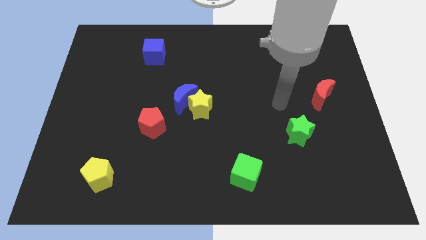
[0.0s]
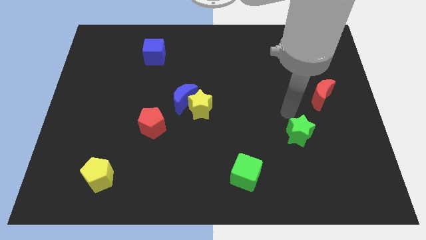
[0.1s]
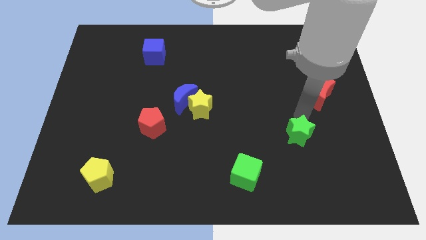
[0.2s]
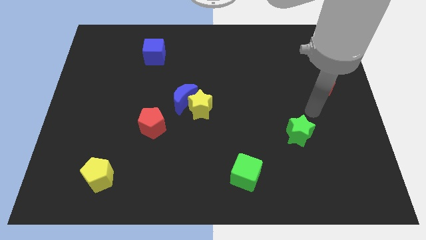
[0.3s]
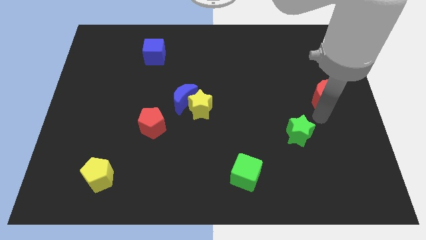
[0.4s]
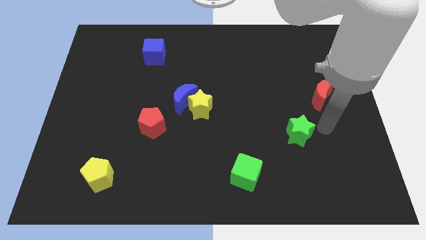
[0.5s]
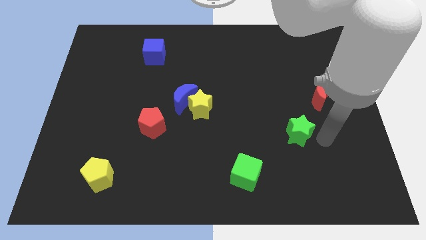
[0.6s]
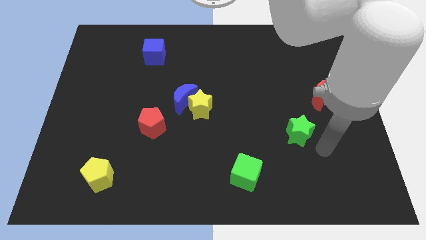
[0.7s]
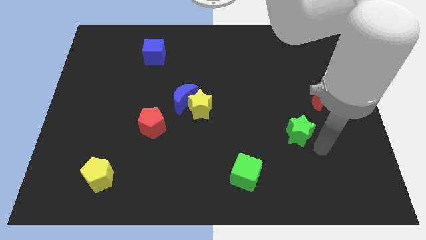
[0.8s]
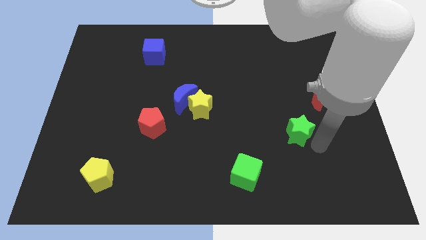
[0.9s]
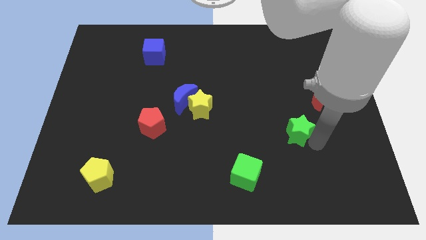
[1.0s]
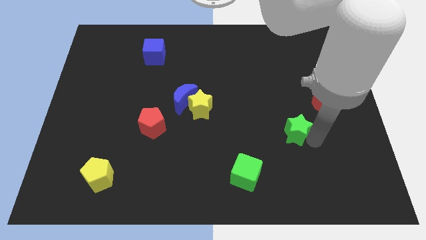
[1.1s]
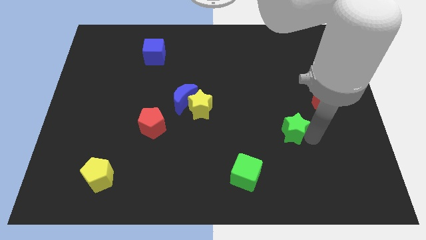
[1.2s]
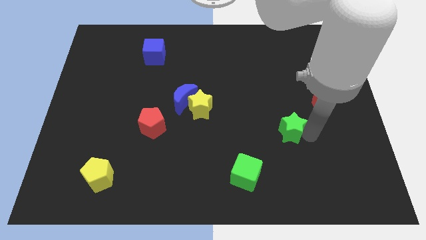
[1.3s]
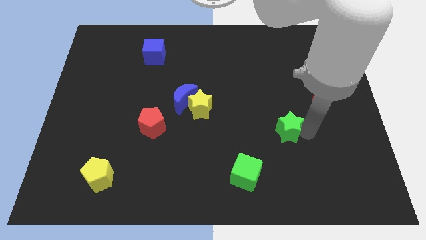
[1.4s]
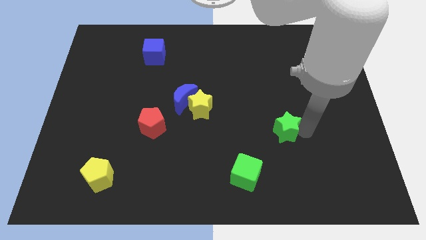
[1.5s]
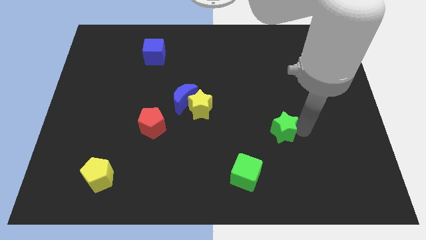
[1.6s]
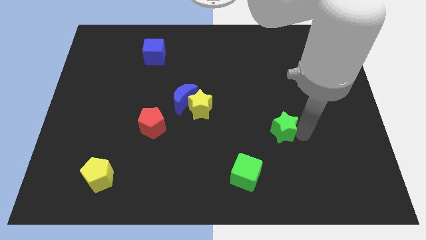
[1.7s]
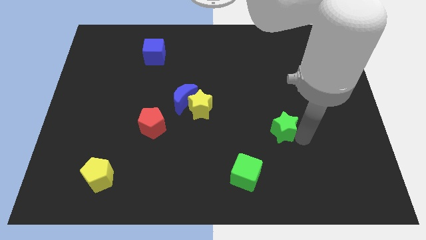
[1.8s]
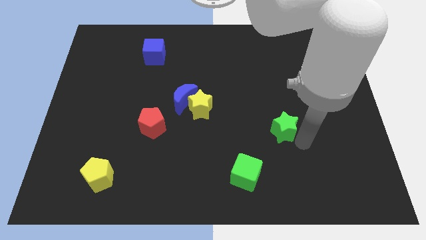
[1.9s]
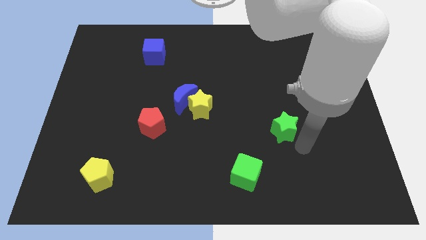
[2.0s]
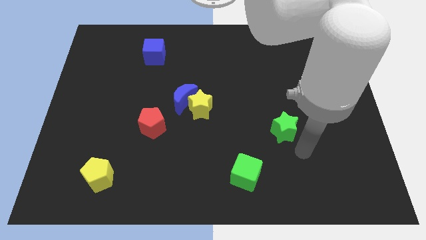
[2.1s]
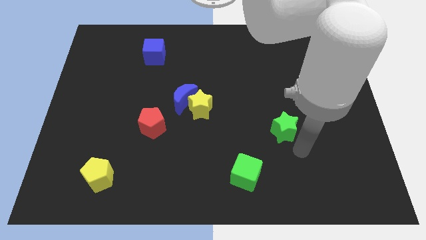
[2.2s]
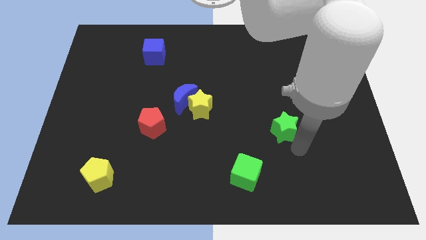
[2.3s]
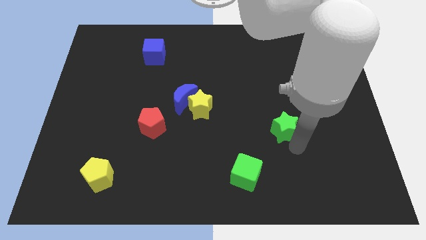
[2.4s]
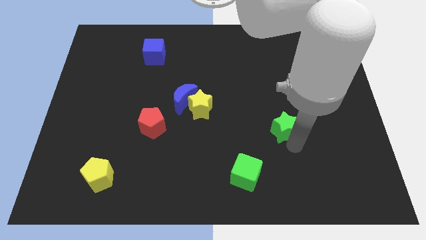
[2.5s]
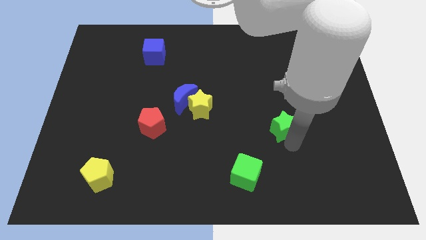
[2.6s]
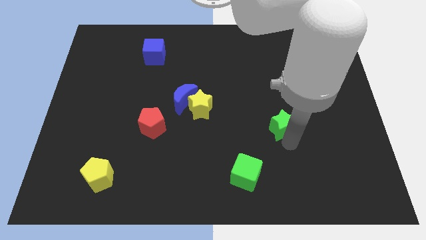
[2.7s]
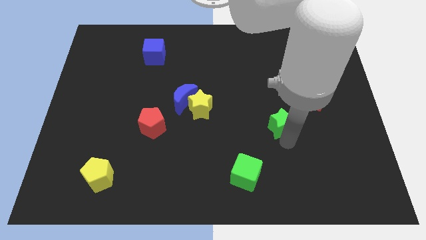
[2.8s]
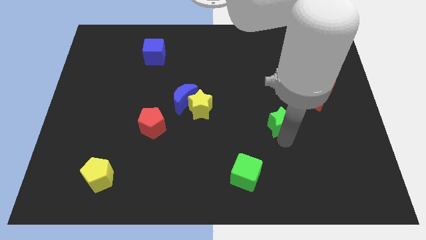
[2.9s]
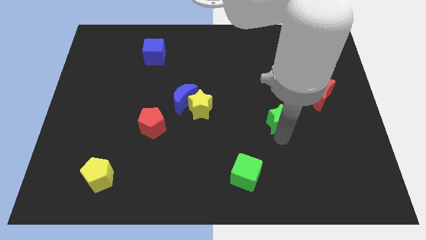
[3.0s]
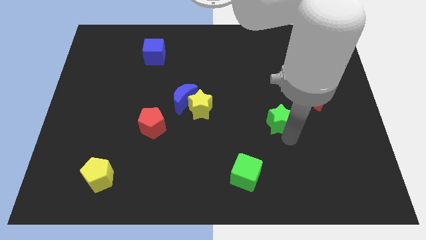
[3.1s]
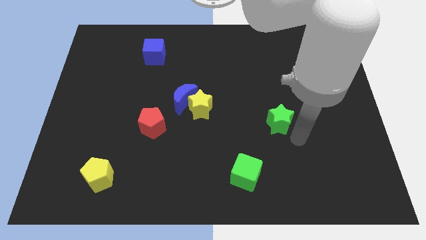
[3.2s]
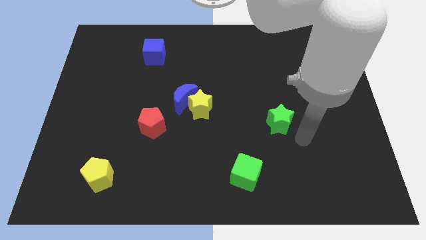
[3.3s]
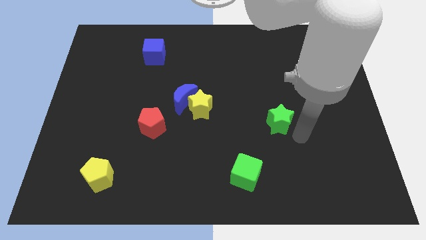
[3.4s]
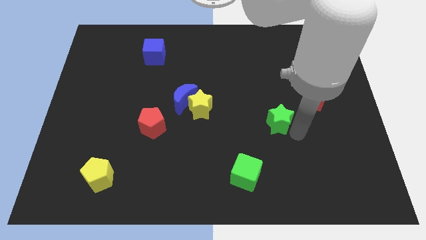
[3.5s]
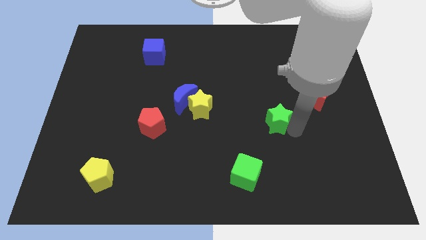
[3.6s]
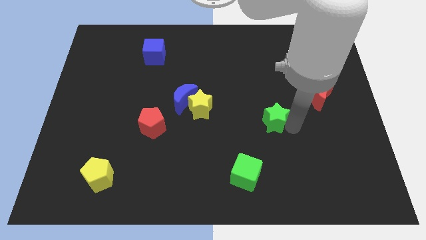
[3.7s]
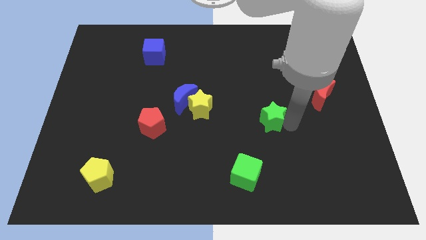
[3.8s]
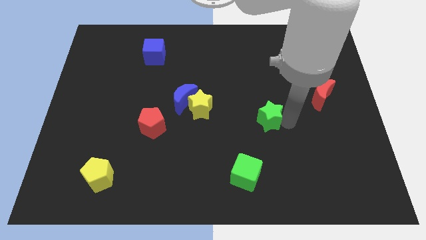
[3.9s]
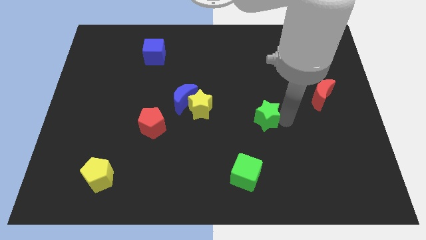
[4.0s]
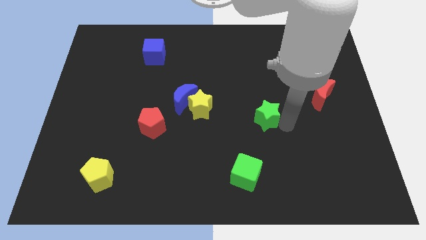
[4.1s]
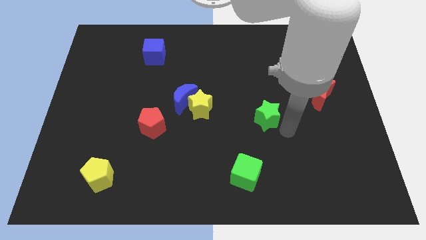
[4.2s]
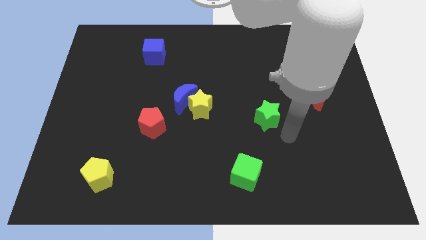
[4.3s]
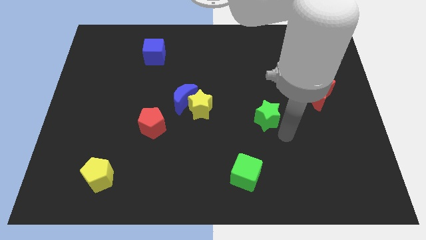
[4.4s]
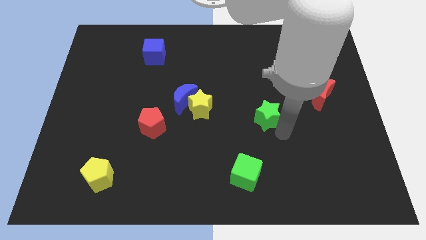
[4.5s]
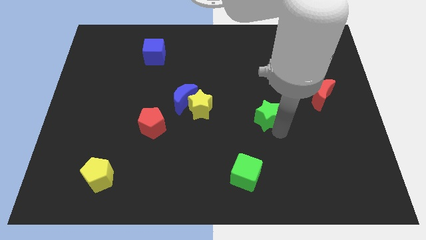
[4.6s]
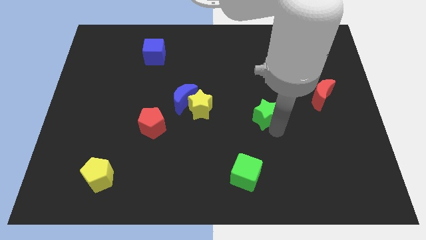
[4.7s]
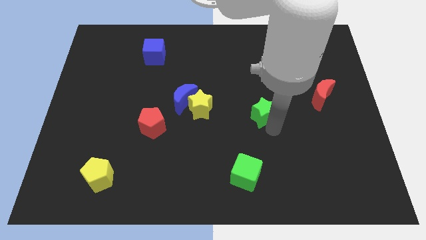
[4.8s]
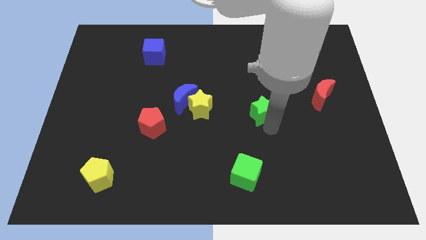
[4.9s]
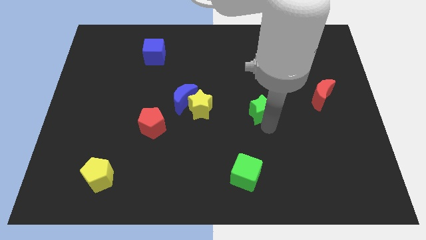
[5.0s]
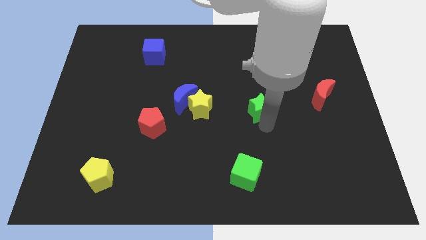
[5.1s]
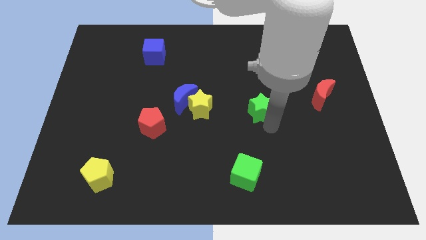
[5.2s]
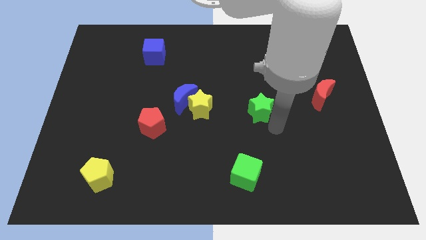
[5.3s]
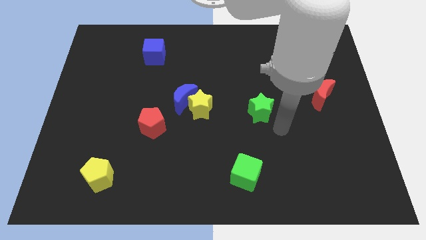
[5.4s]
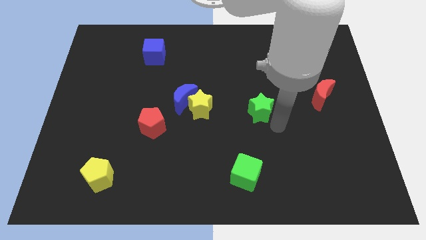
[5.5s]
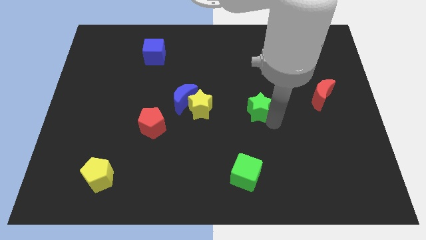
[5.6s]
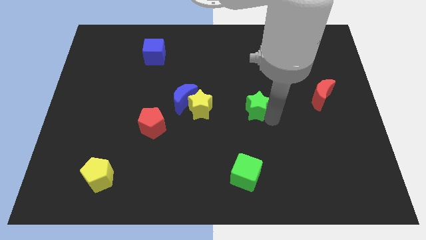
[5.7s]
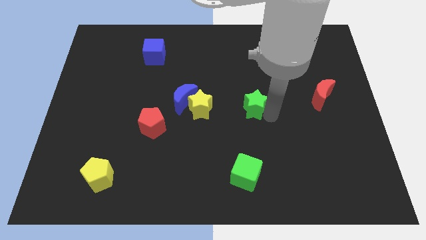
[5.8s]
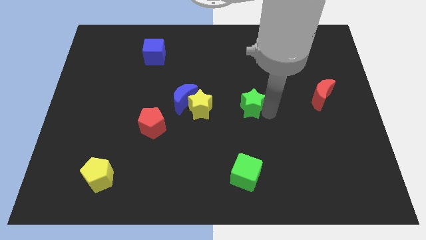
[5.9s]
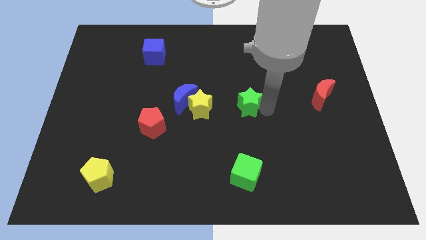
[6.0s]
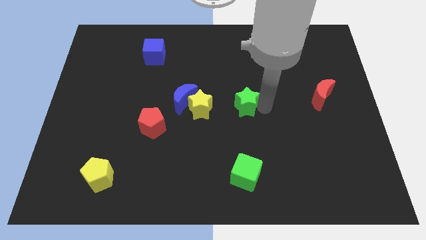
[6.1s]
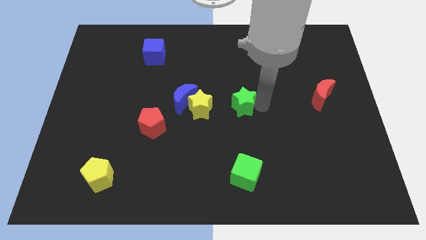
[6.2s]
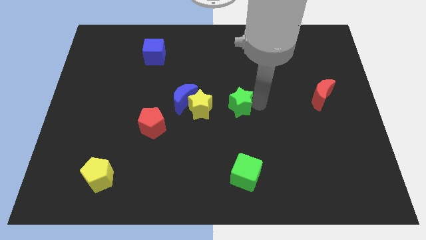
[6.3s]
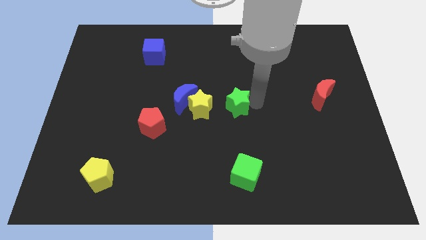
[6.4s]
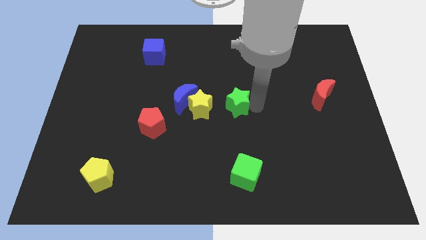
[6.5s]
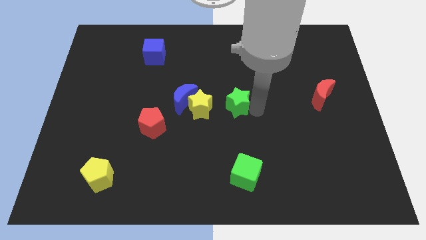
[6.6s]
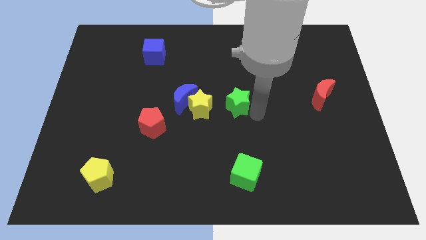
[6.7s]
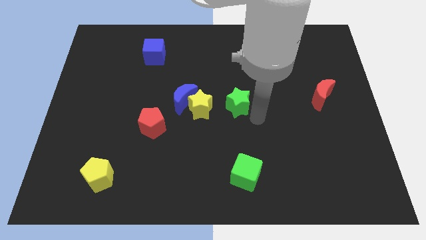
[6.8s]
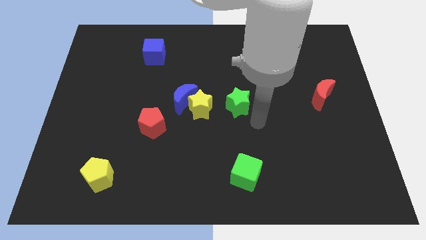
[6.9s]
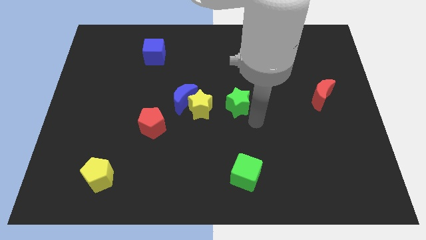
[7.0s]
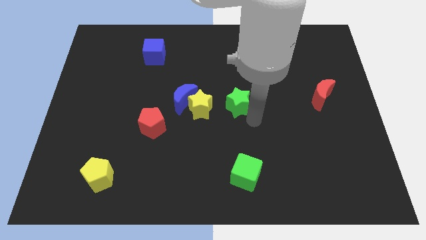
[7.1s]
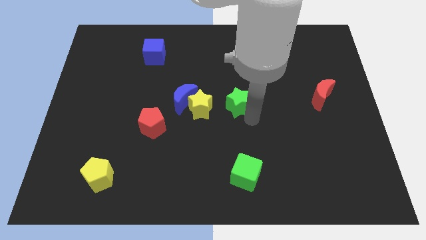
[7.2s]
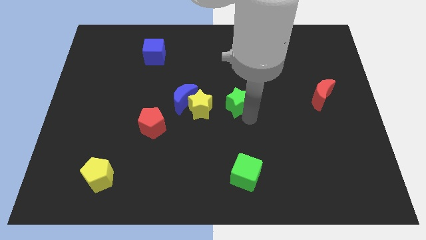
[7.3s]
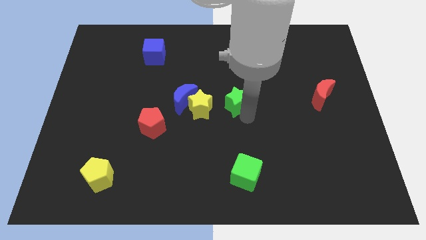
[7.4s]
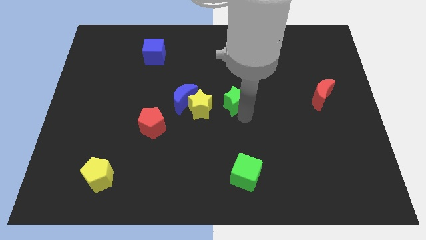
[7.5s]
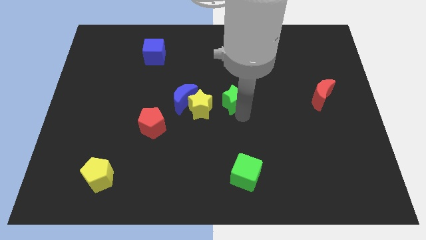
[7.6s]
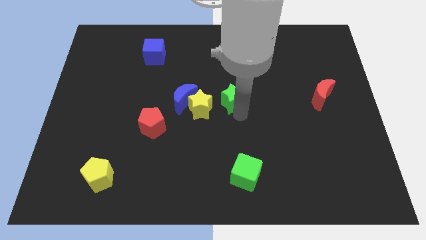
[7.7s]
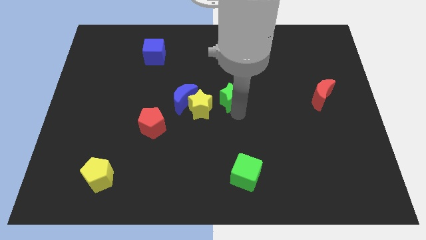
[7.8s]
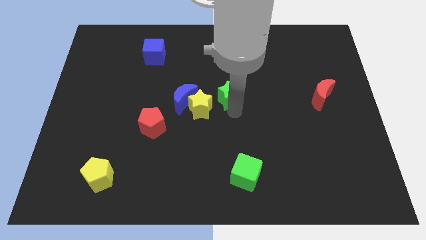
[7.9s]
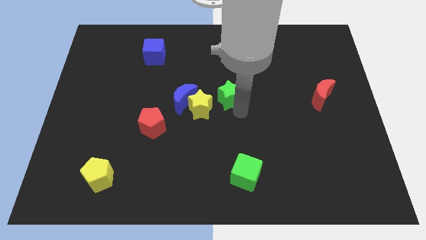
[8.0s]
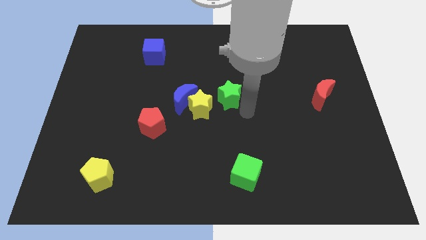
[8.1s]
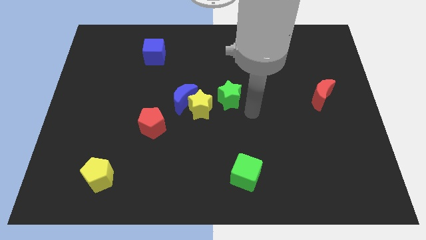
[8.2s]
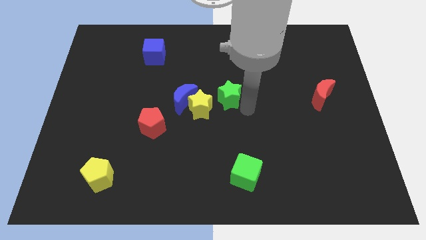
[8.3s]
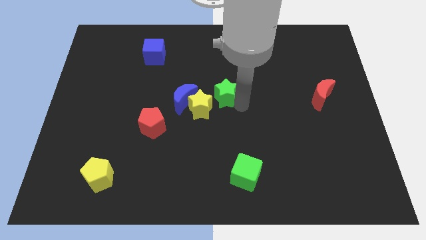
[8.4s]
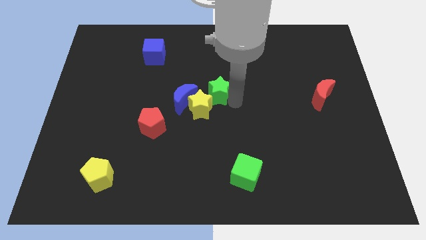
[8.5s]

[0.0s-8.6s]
put the green star to the top right side of the blue moon
